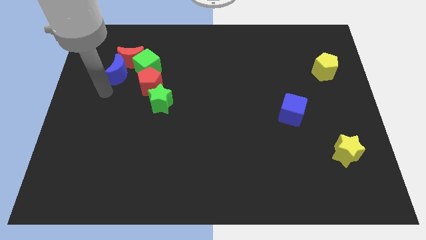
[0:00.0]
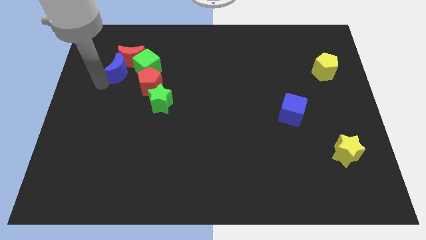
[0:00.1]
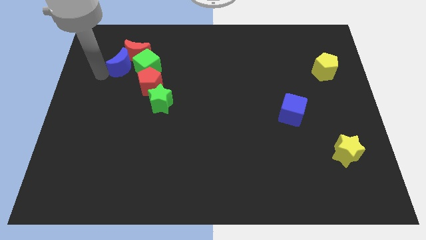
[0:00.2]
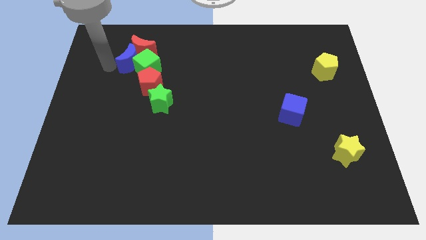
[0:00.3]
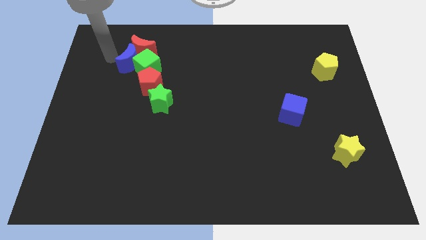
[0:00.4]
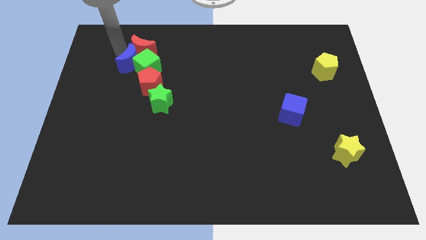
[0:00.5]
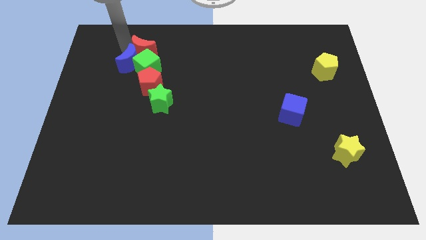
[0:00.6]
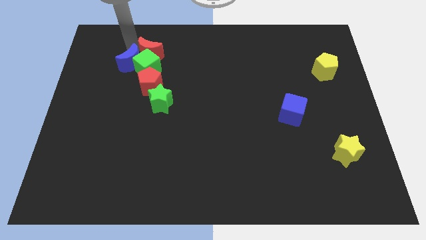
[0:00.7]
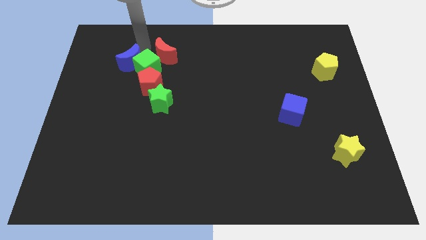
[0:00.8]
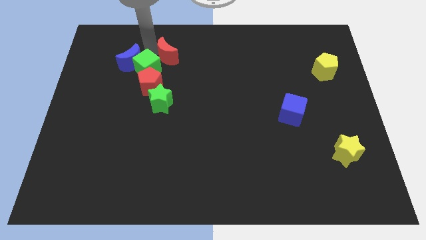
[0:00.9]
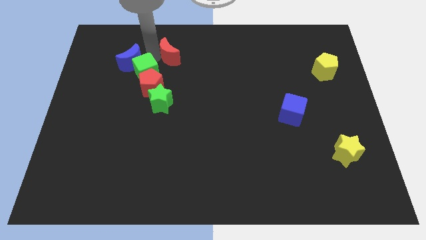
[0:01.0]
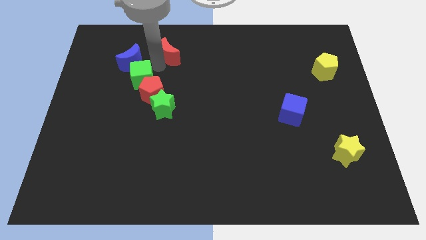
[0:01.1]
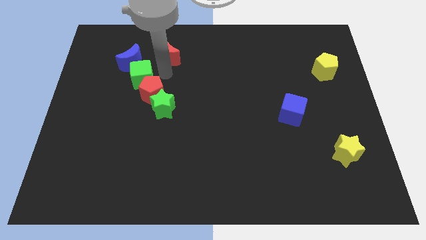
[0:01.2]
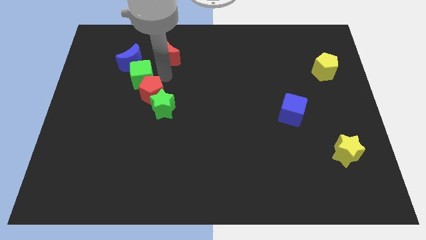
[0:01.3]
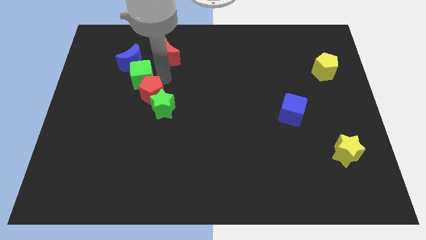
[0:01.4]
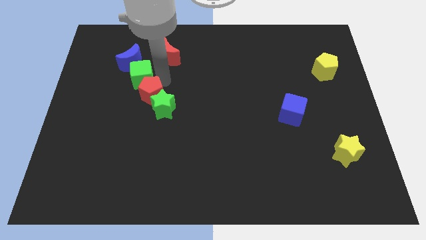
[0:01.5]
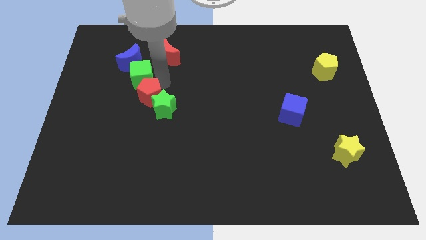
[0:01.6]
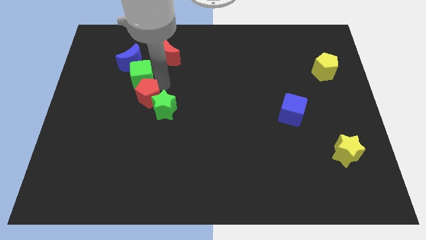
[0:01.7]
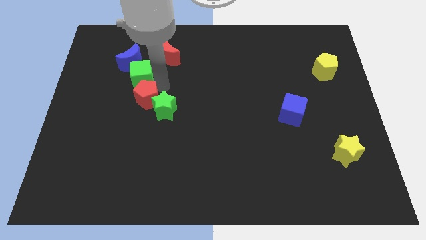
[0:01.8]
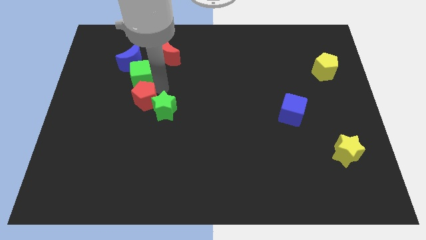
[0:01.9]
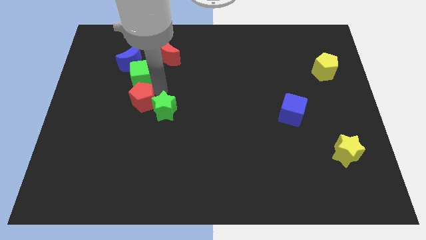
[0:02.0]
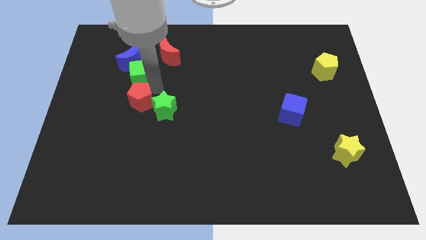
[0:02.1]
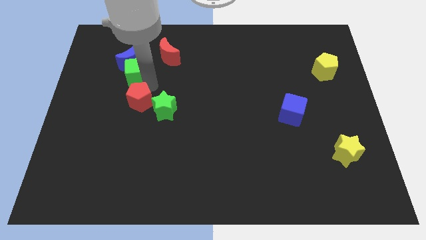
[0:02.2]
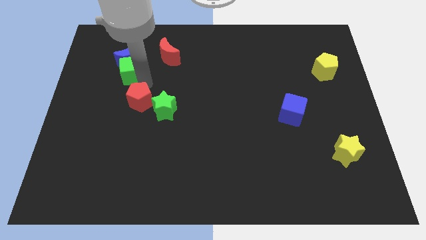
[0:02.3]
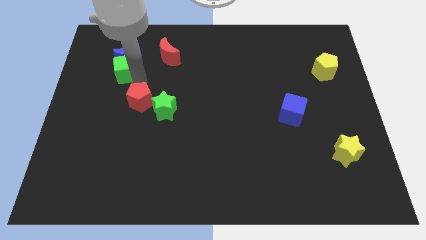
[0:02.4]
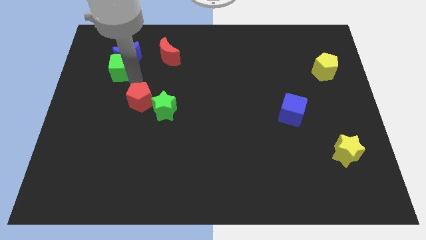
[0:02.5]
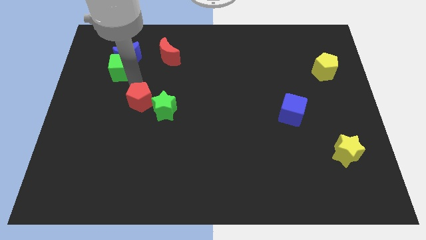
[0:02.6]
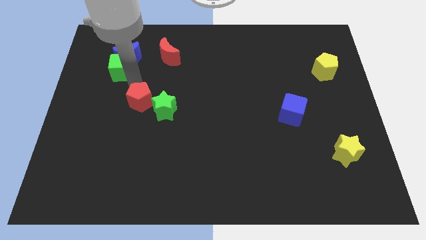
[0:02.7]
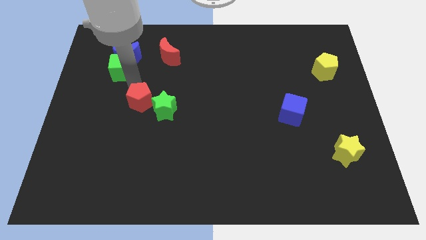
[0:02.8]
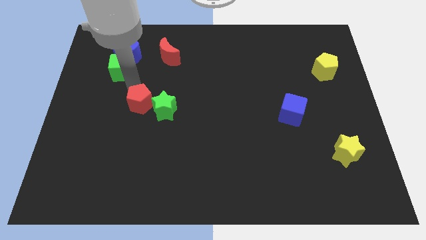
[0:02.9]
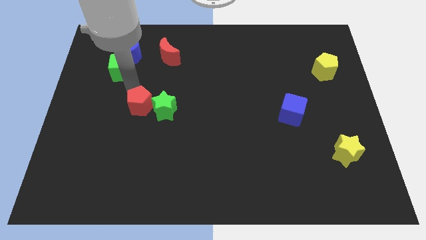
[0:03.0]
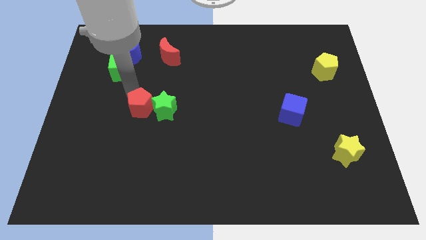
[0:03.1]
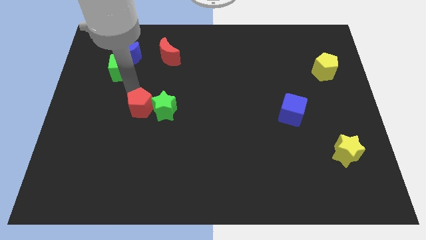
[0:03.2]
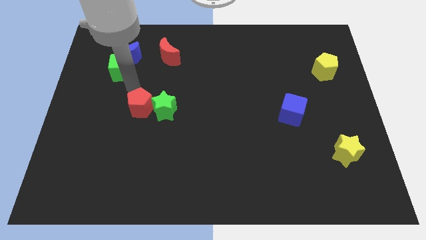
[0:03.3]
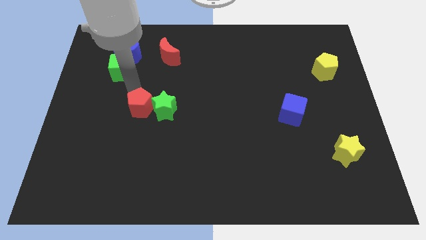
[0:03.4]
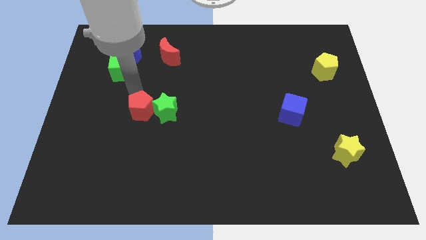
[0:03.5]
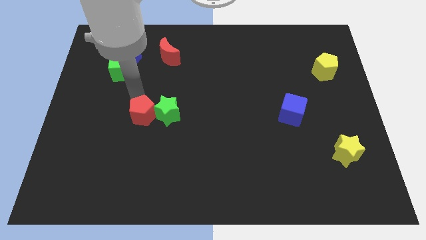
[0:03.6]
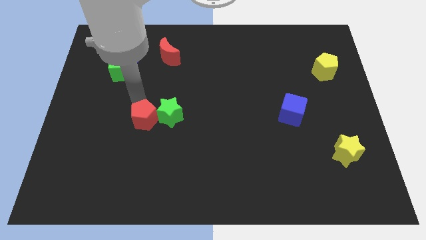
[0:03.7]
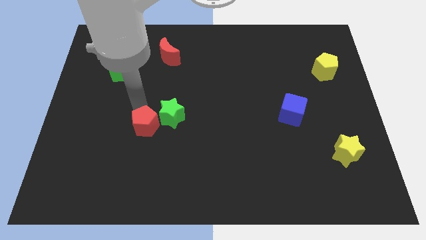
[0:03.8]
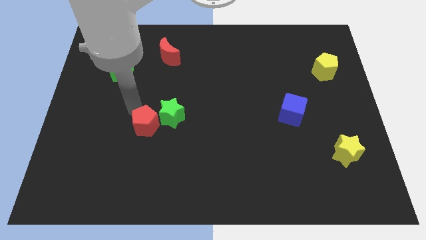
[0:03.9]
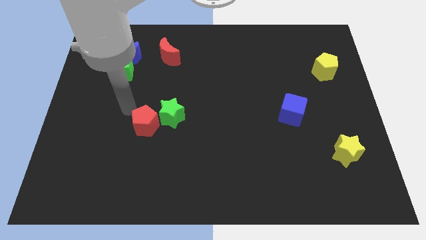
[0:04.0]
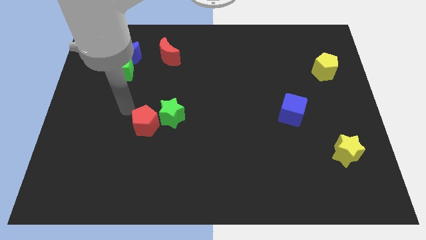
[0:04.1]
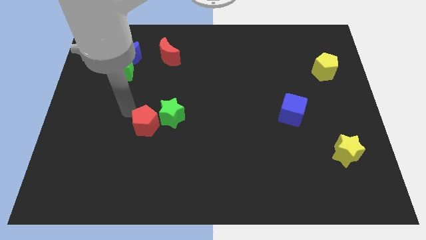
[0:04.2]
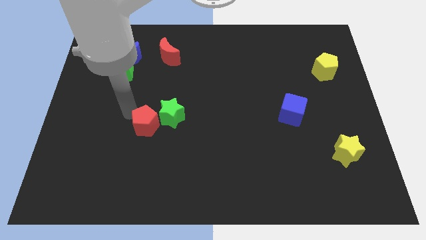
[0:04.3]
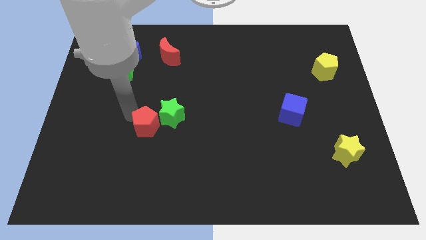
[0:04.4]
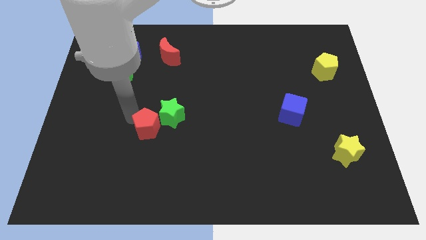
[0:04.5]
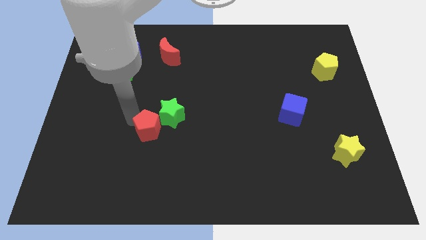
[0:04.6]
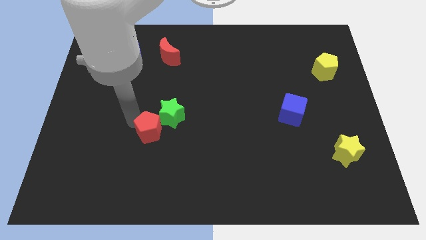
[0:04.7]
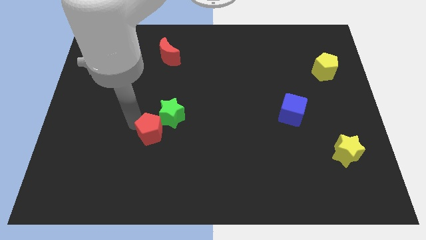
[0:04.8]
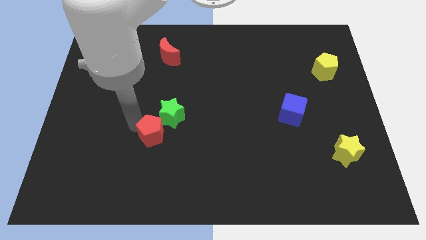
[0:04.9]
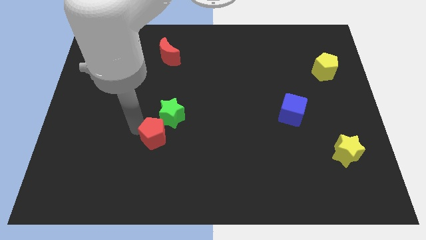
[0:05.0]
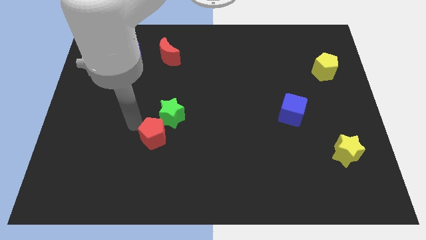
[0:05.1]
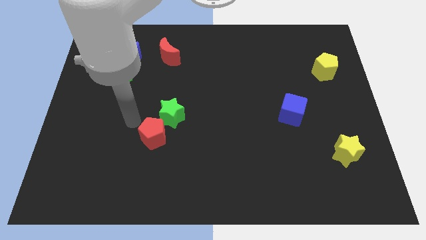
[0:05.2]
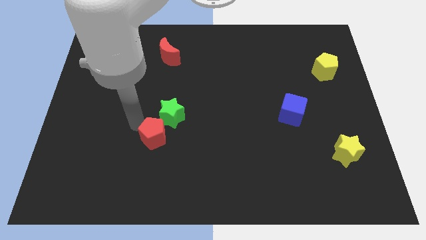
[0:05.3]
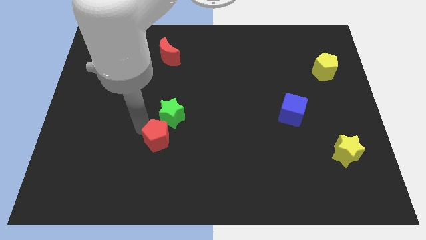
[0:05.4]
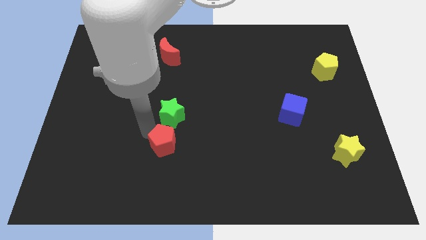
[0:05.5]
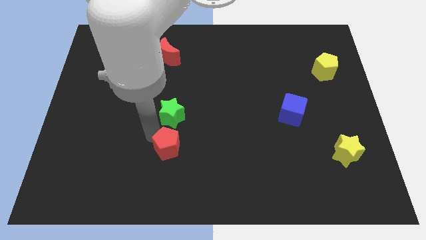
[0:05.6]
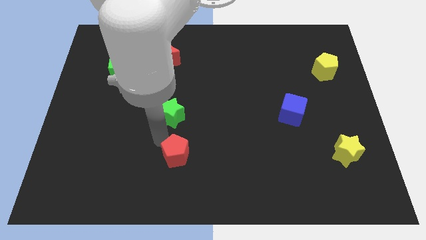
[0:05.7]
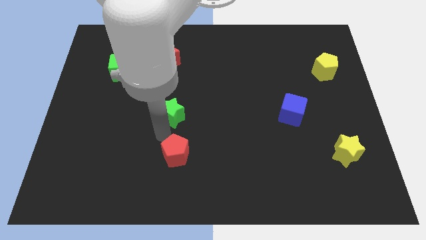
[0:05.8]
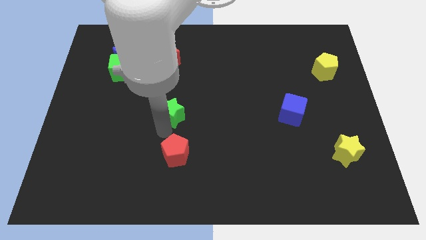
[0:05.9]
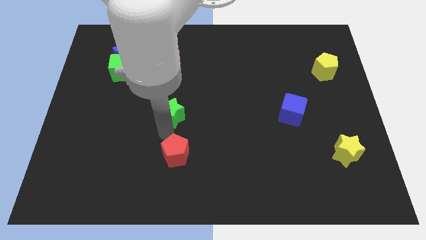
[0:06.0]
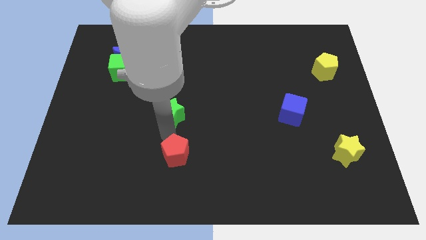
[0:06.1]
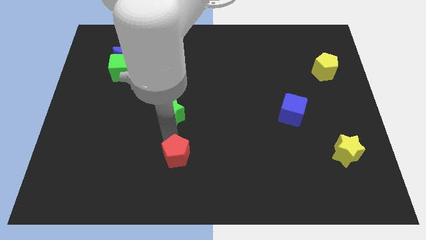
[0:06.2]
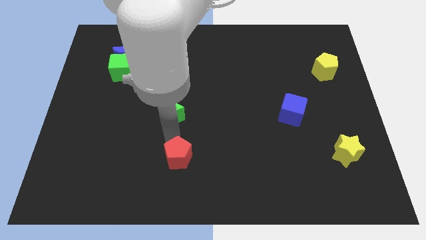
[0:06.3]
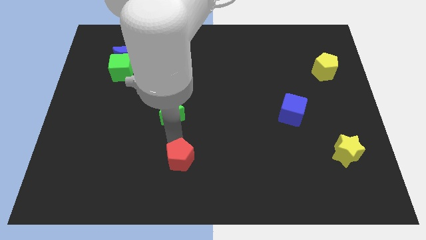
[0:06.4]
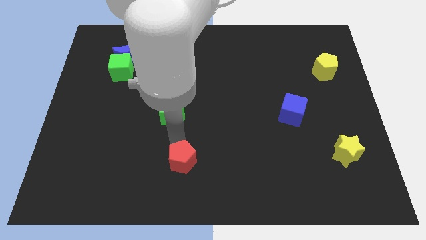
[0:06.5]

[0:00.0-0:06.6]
slide the red pentagon to the bottom
